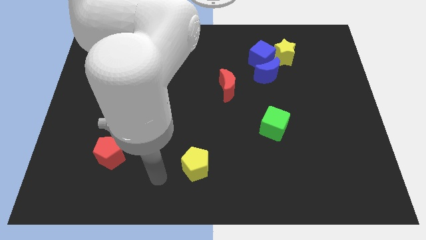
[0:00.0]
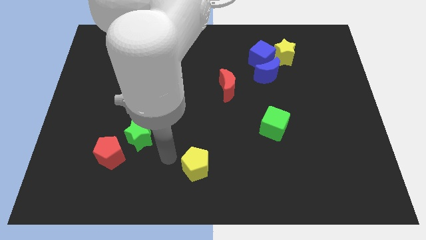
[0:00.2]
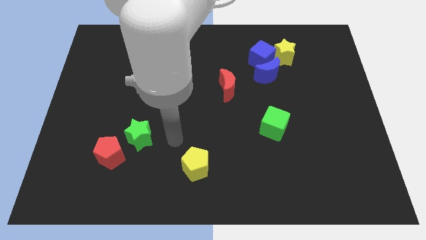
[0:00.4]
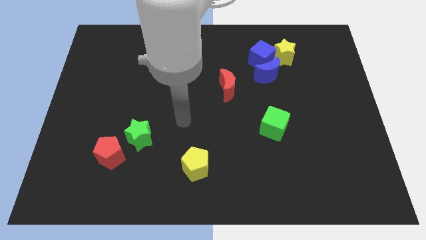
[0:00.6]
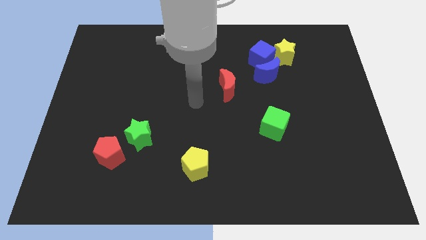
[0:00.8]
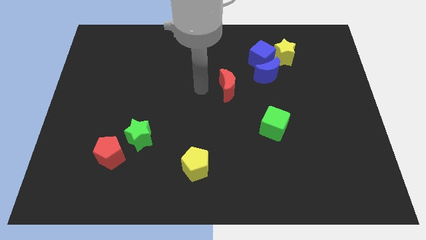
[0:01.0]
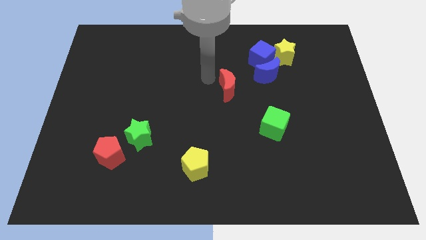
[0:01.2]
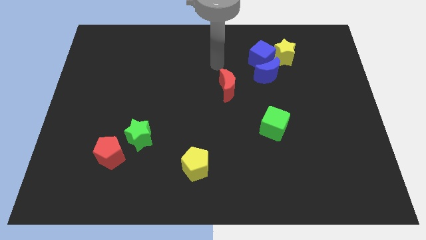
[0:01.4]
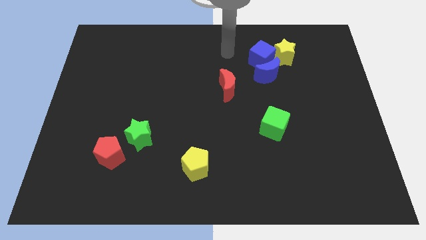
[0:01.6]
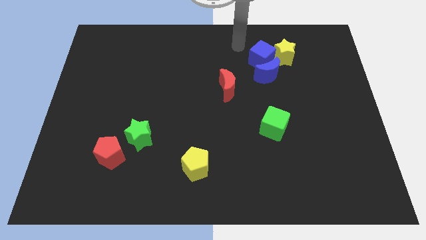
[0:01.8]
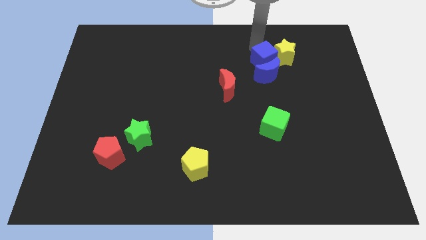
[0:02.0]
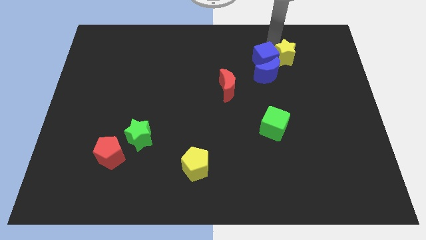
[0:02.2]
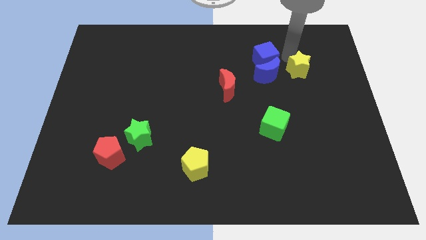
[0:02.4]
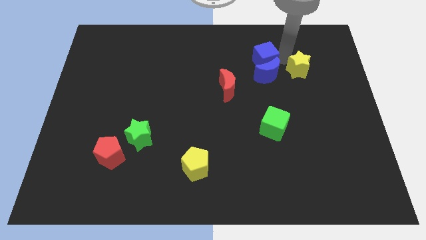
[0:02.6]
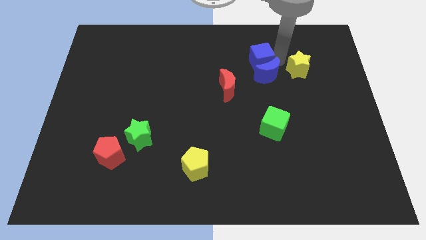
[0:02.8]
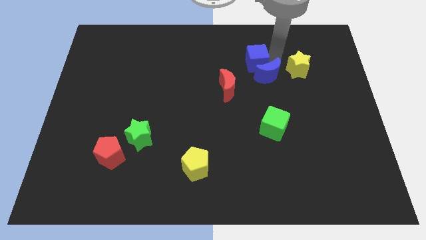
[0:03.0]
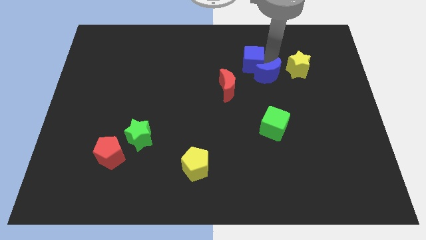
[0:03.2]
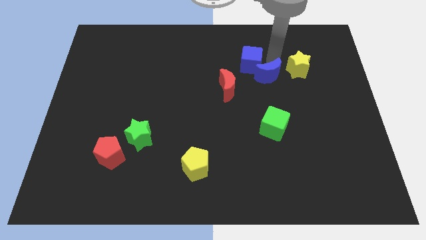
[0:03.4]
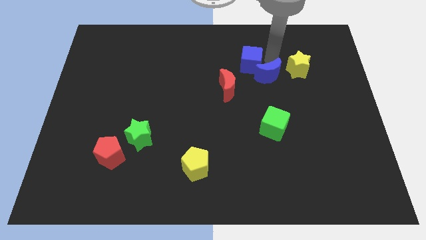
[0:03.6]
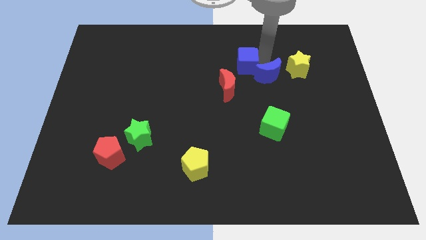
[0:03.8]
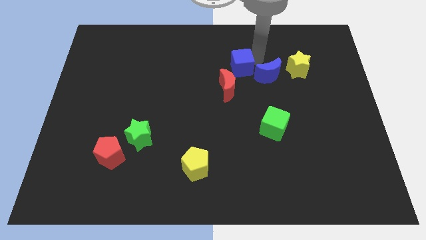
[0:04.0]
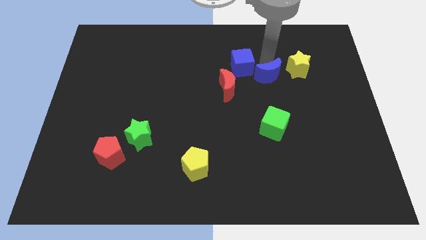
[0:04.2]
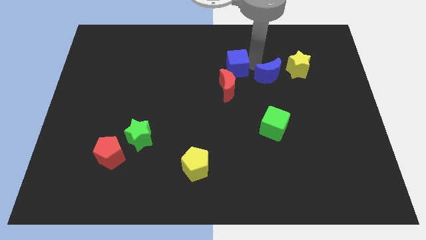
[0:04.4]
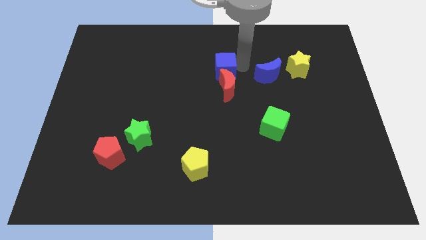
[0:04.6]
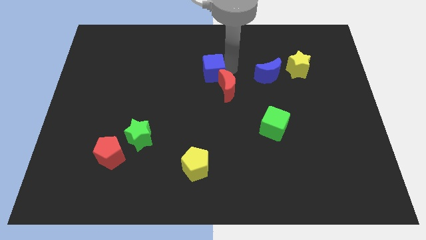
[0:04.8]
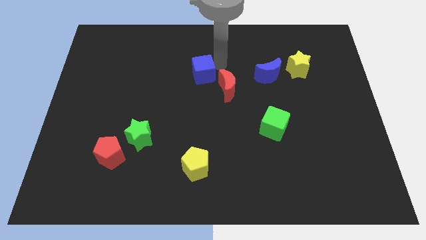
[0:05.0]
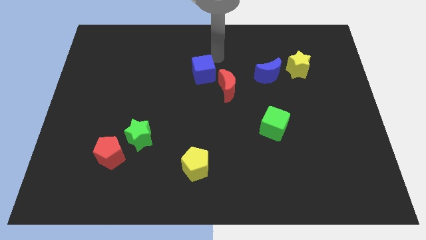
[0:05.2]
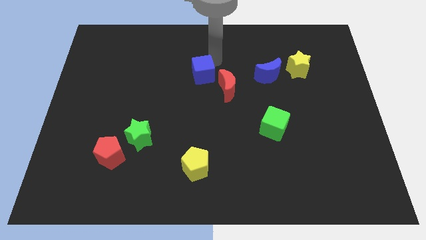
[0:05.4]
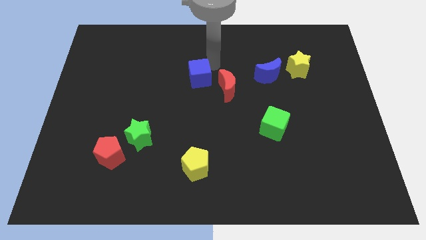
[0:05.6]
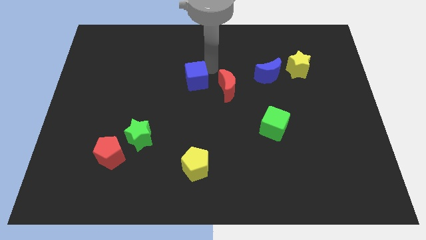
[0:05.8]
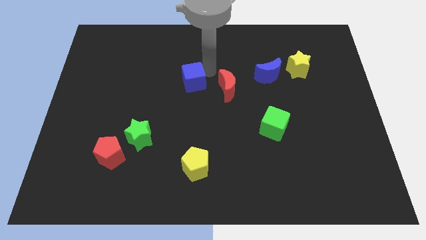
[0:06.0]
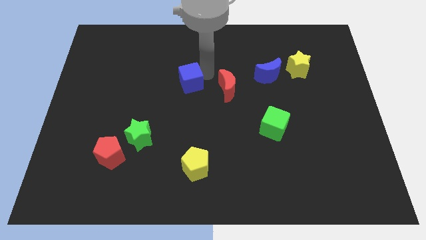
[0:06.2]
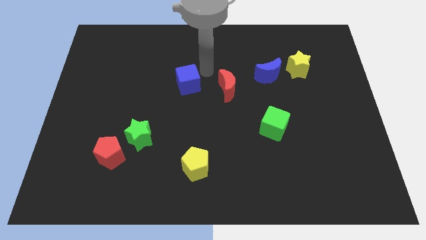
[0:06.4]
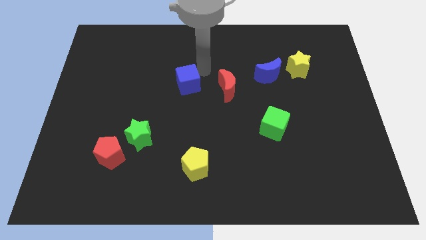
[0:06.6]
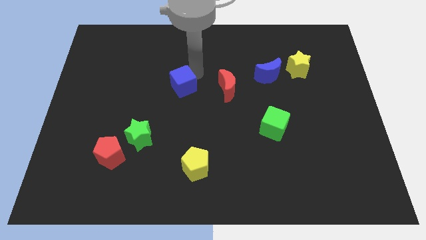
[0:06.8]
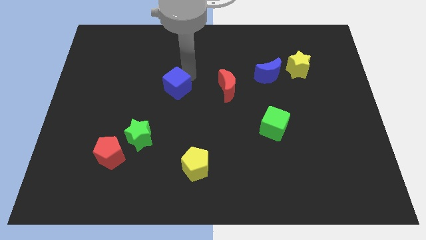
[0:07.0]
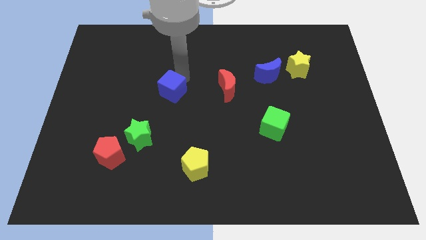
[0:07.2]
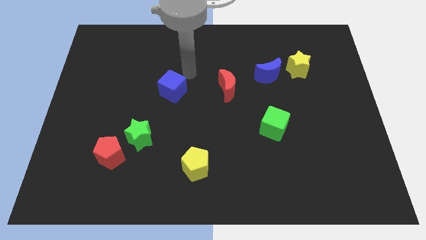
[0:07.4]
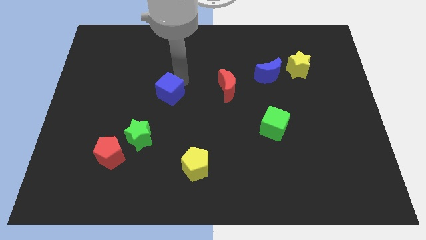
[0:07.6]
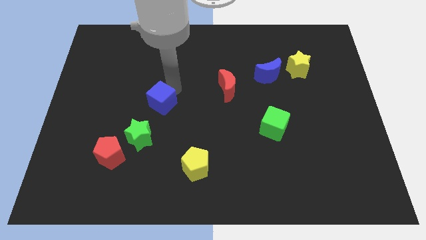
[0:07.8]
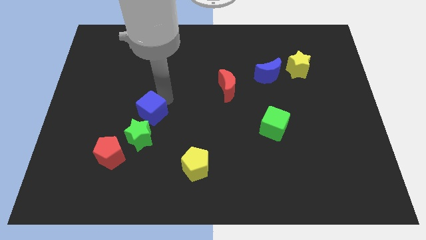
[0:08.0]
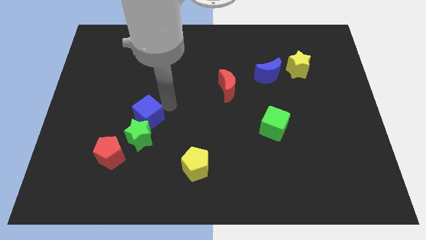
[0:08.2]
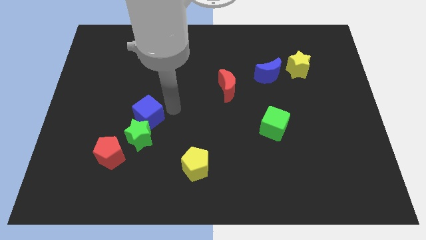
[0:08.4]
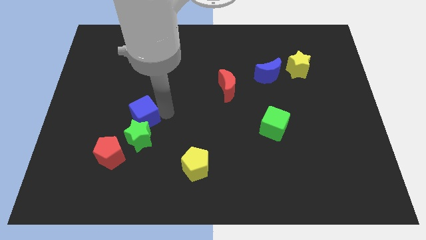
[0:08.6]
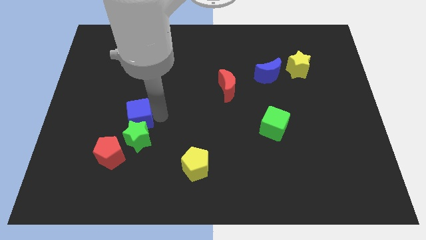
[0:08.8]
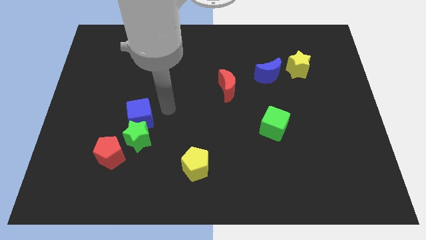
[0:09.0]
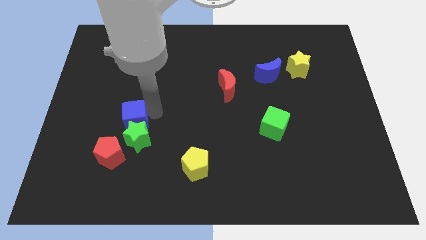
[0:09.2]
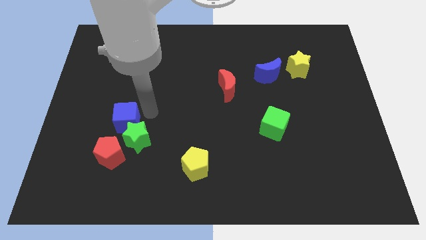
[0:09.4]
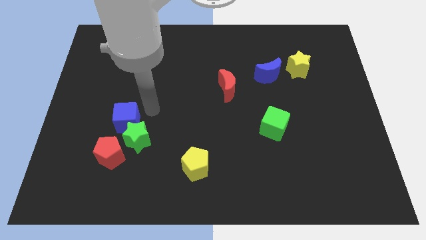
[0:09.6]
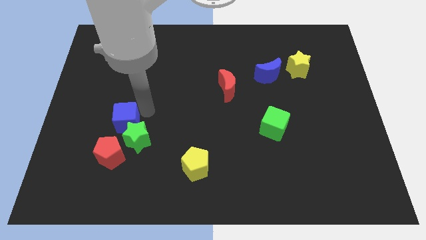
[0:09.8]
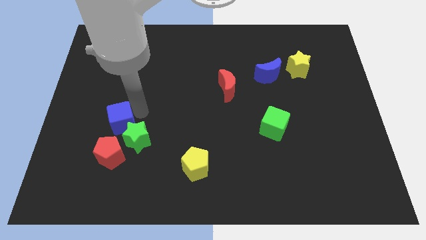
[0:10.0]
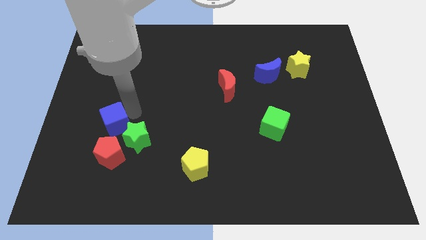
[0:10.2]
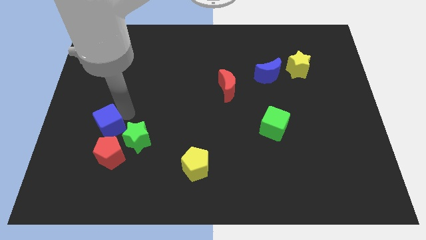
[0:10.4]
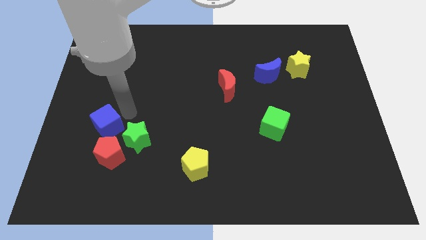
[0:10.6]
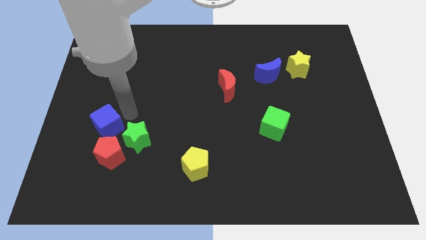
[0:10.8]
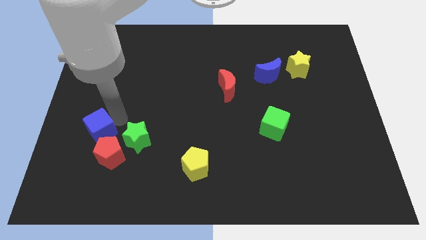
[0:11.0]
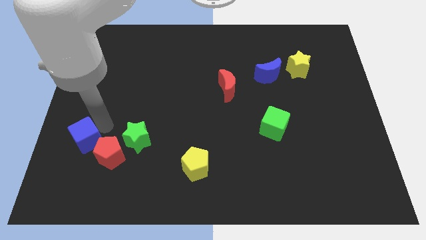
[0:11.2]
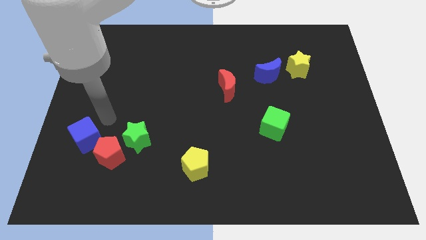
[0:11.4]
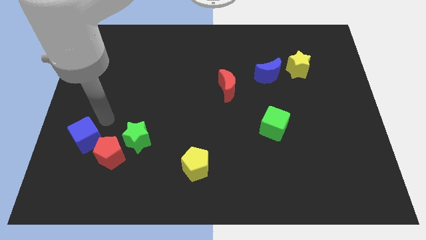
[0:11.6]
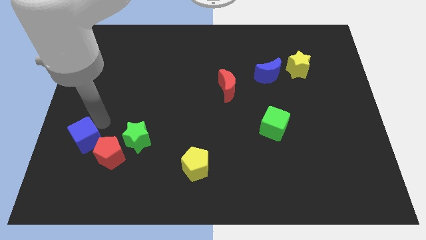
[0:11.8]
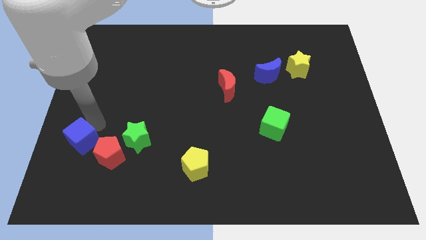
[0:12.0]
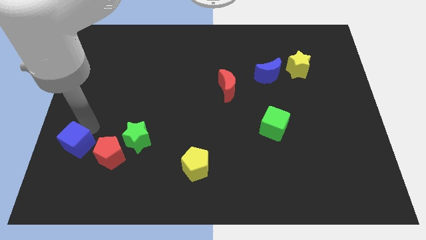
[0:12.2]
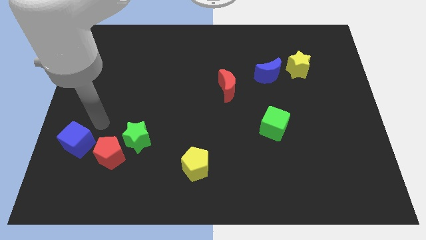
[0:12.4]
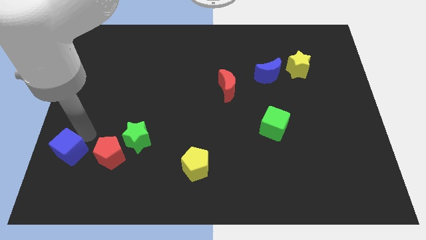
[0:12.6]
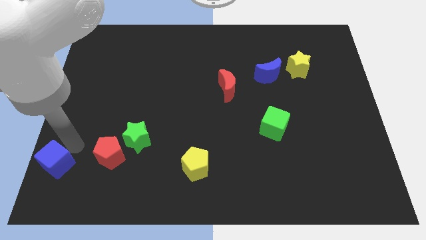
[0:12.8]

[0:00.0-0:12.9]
put the blue cube to the bottom left
